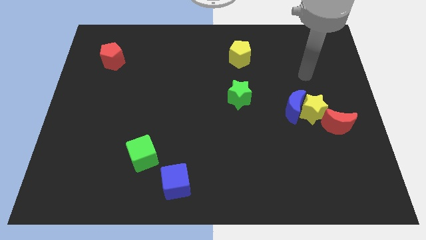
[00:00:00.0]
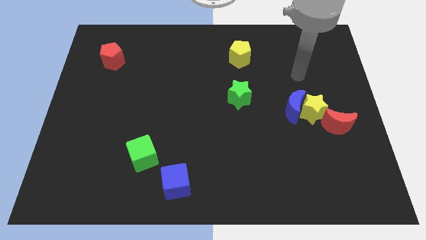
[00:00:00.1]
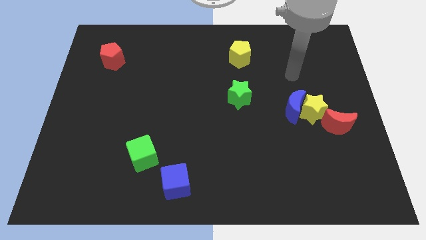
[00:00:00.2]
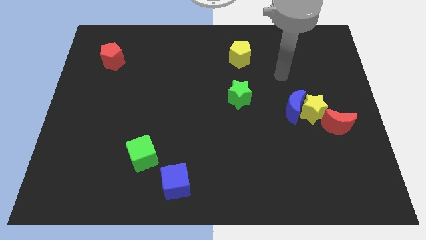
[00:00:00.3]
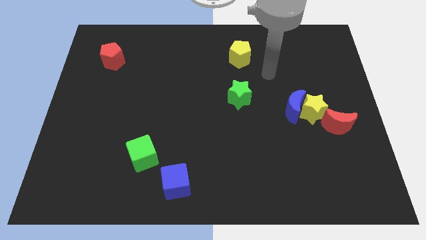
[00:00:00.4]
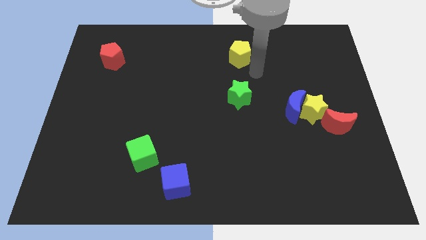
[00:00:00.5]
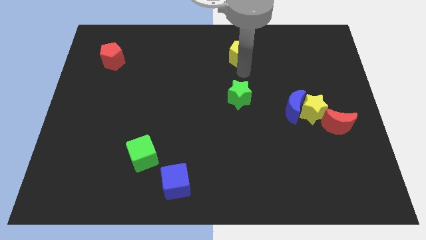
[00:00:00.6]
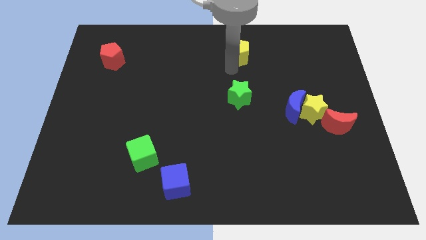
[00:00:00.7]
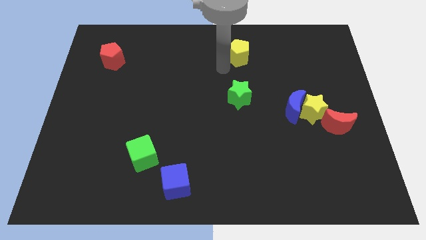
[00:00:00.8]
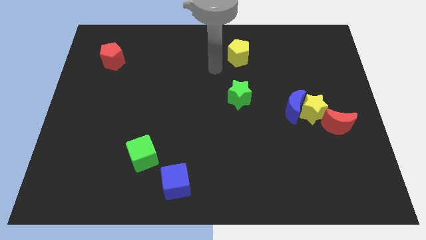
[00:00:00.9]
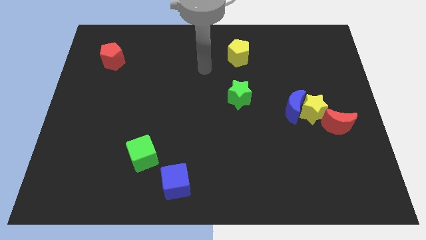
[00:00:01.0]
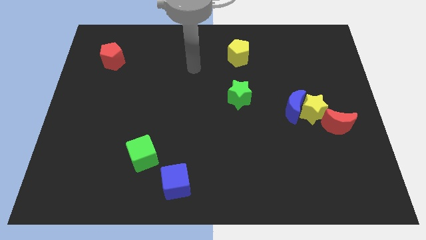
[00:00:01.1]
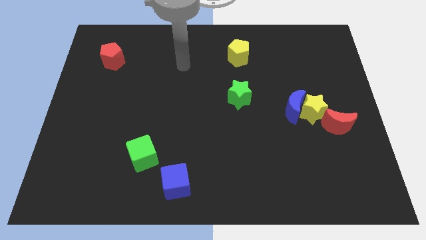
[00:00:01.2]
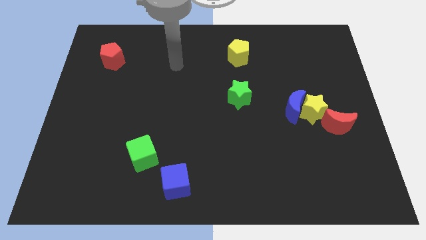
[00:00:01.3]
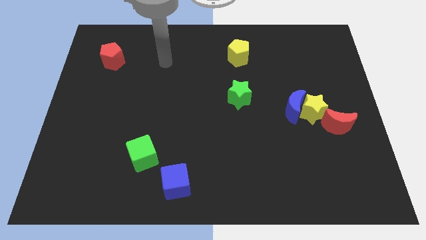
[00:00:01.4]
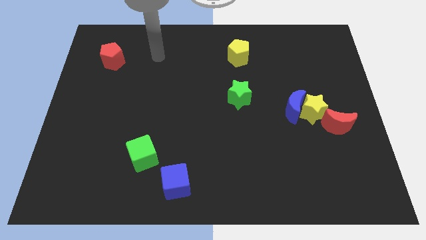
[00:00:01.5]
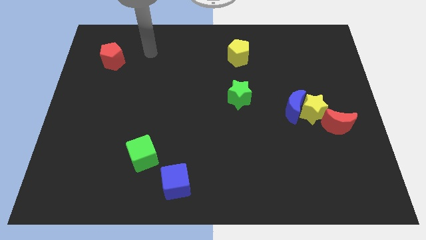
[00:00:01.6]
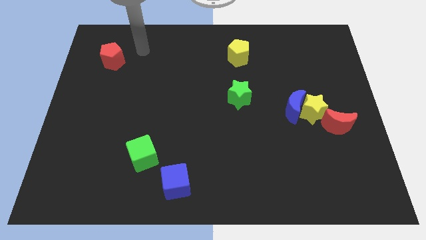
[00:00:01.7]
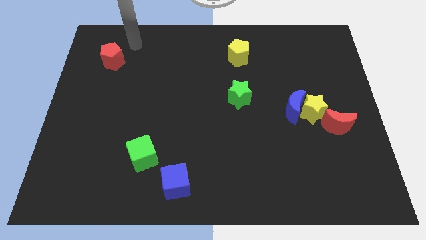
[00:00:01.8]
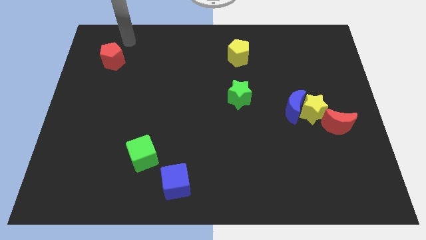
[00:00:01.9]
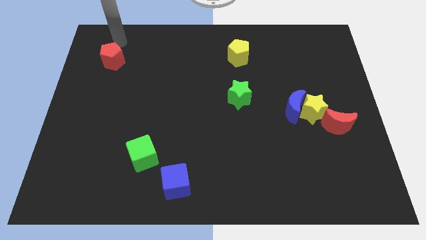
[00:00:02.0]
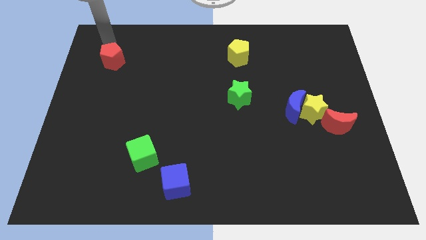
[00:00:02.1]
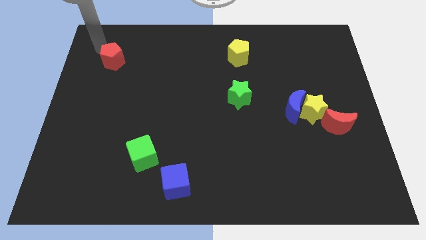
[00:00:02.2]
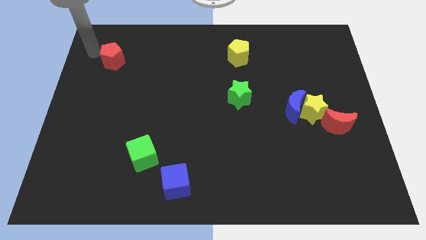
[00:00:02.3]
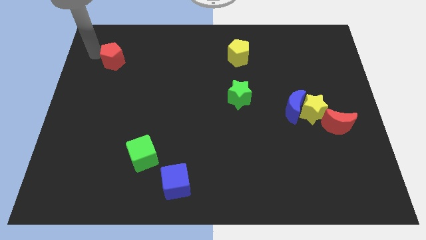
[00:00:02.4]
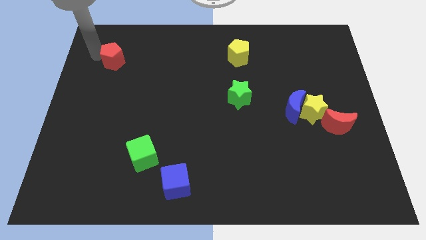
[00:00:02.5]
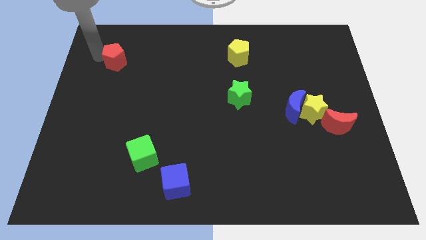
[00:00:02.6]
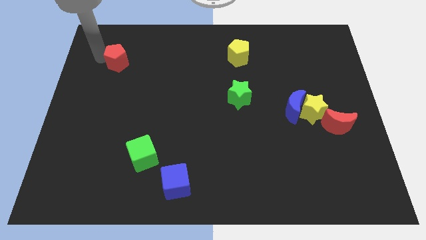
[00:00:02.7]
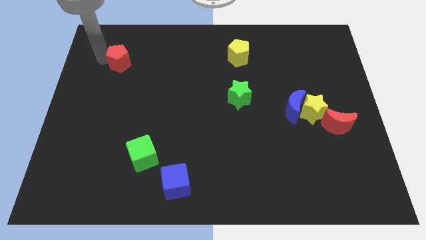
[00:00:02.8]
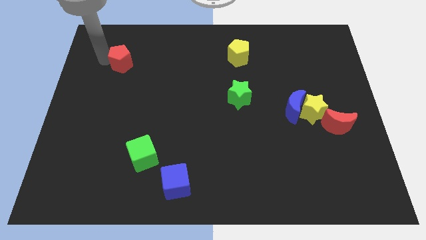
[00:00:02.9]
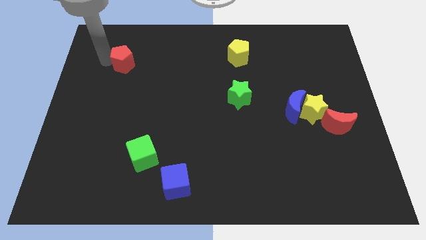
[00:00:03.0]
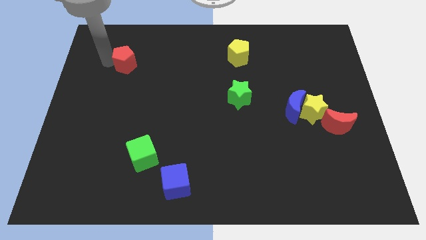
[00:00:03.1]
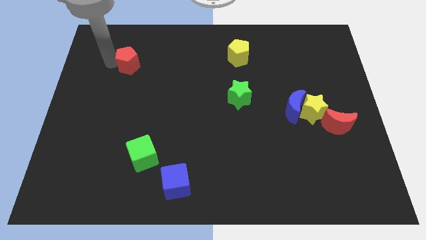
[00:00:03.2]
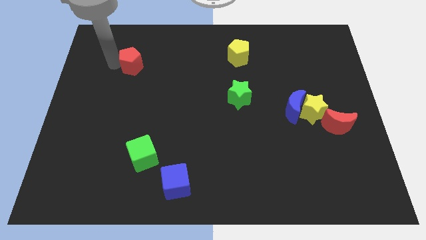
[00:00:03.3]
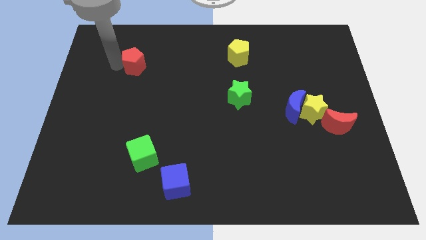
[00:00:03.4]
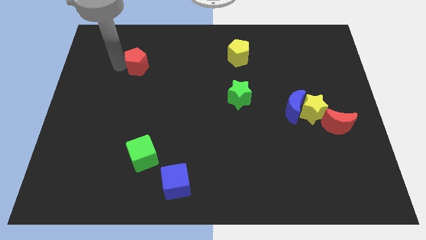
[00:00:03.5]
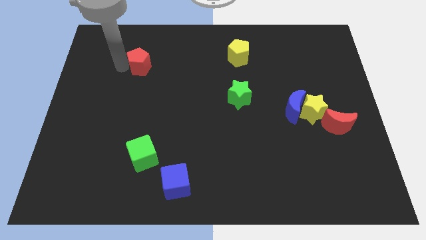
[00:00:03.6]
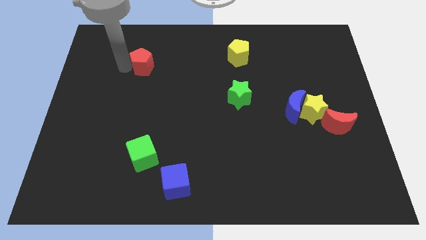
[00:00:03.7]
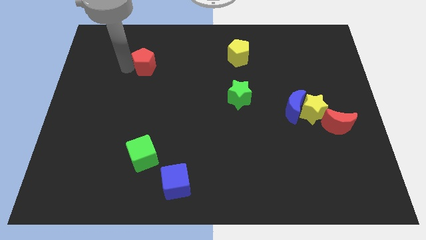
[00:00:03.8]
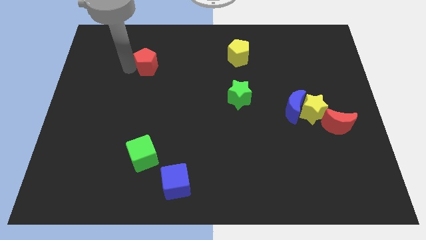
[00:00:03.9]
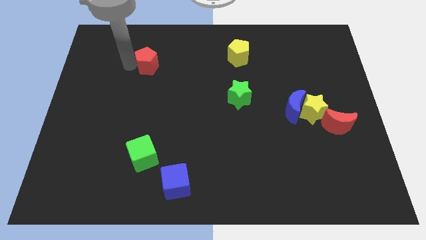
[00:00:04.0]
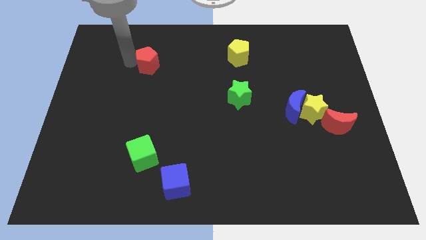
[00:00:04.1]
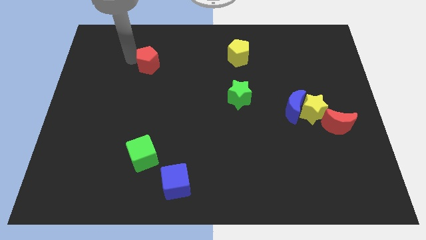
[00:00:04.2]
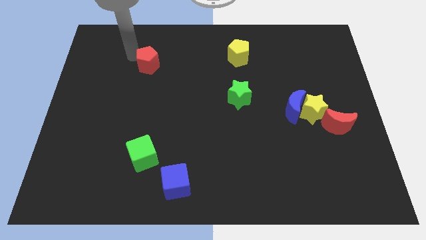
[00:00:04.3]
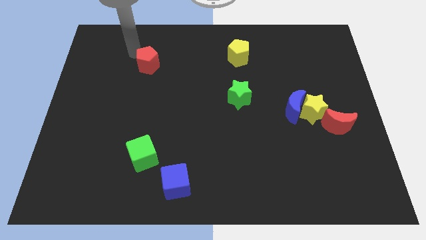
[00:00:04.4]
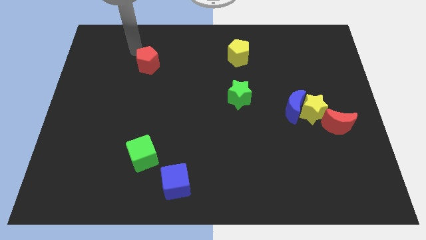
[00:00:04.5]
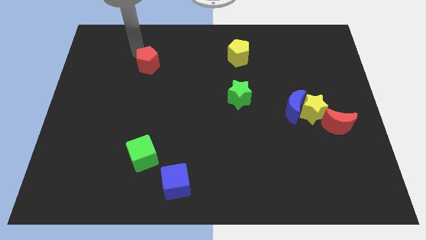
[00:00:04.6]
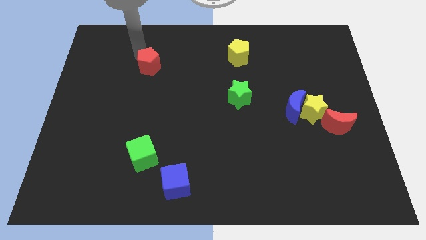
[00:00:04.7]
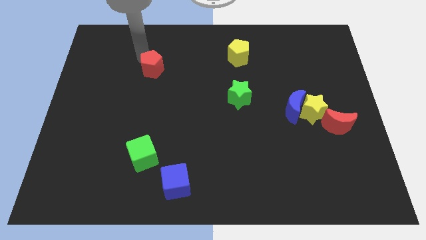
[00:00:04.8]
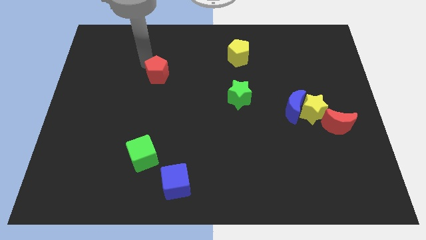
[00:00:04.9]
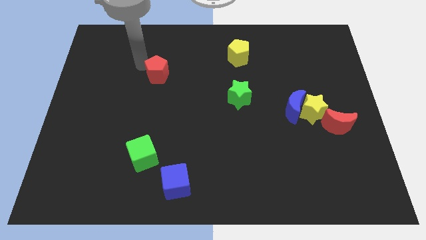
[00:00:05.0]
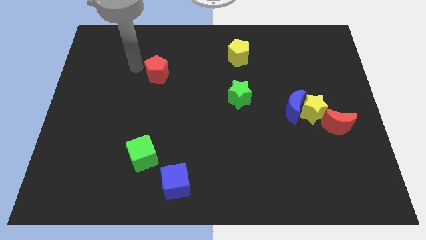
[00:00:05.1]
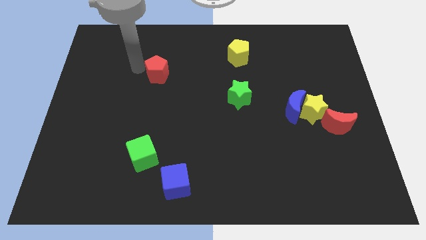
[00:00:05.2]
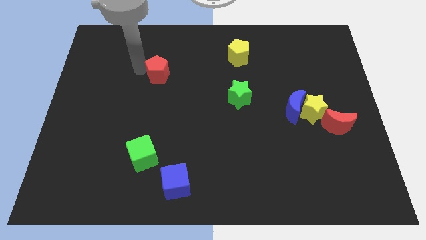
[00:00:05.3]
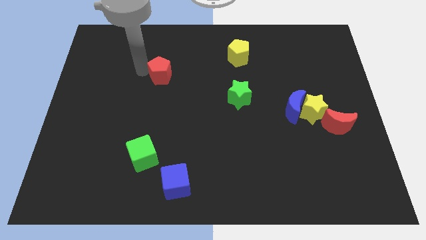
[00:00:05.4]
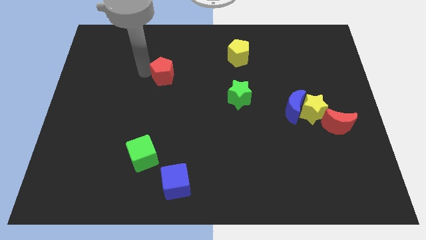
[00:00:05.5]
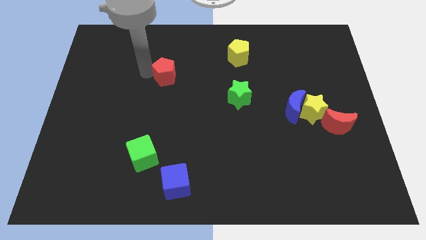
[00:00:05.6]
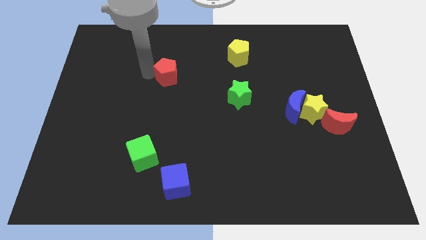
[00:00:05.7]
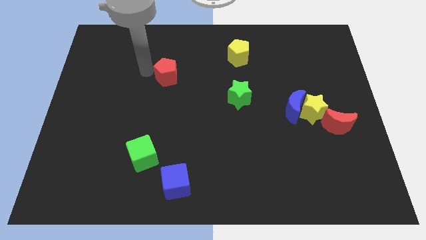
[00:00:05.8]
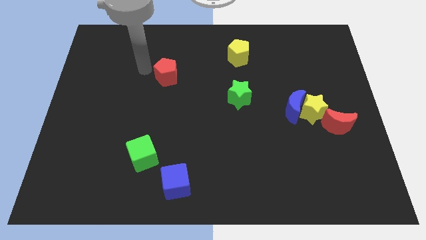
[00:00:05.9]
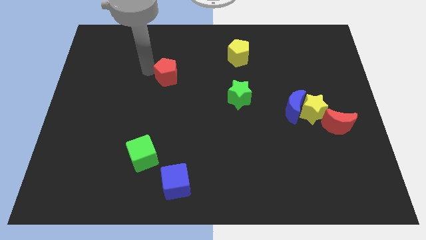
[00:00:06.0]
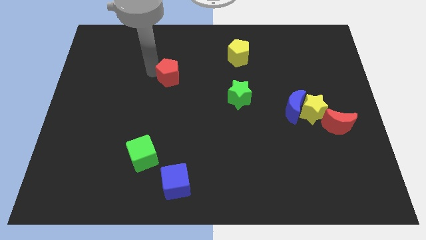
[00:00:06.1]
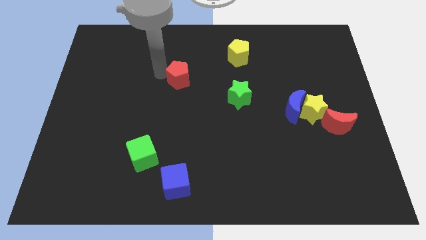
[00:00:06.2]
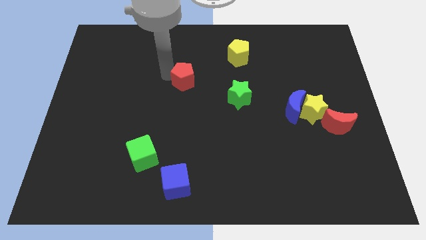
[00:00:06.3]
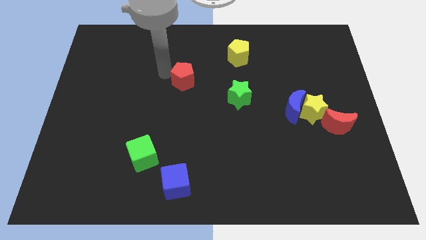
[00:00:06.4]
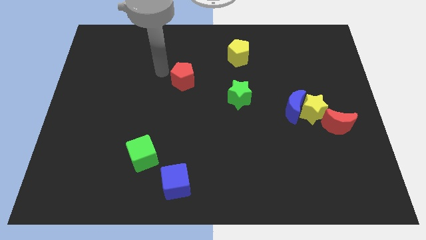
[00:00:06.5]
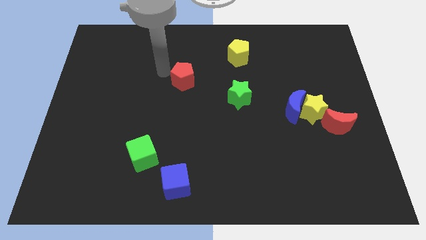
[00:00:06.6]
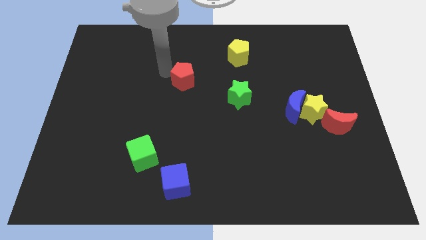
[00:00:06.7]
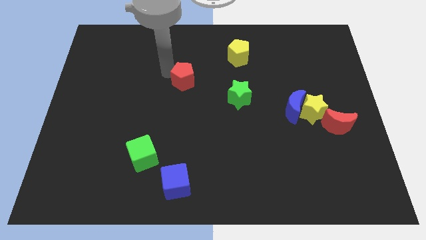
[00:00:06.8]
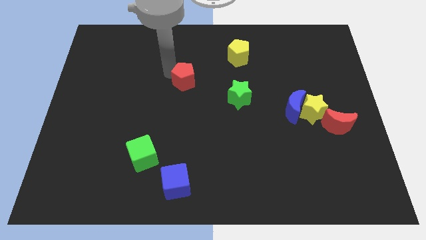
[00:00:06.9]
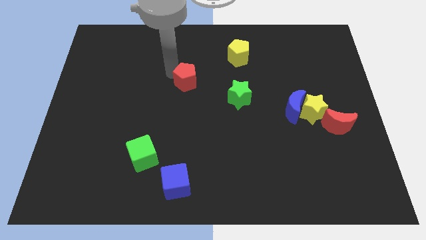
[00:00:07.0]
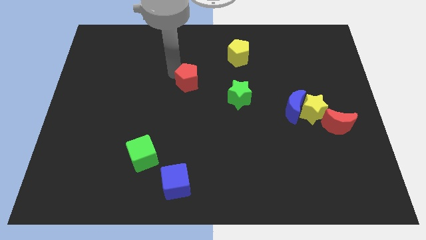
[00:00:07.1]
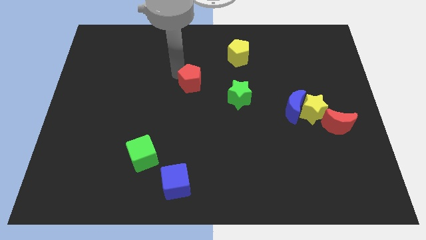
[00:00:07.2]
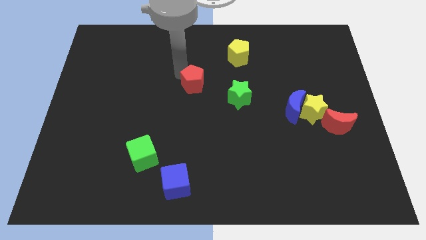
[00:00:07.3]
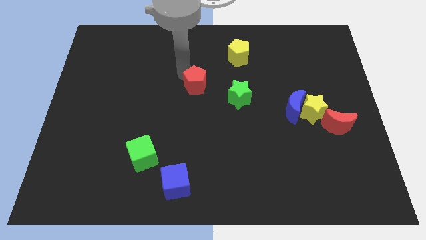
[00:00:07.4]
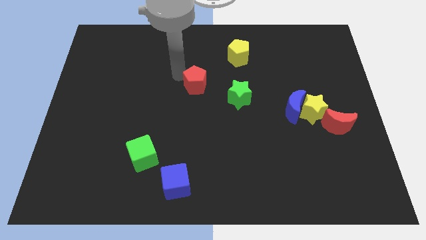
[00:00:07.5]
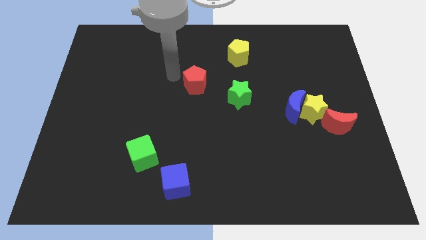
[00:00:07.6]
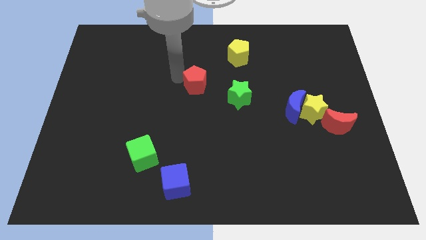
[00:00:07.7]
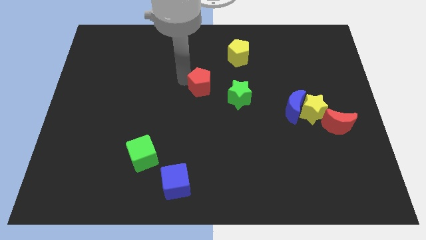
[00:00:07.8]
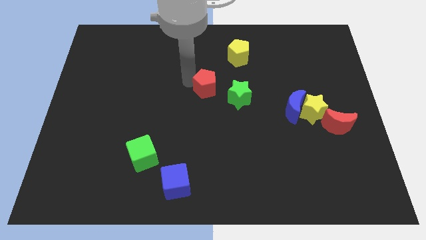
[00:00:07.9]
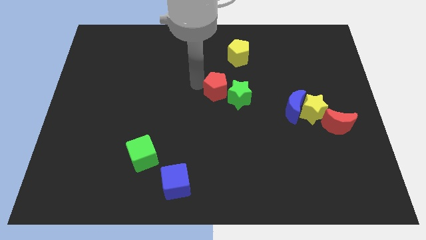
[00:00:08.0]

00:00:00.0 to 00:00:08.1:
push the red pentagon close to the green star
